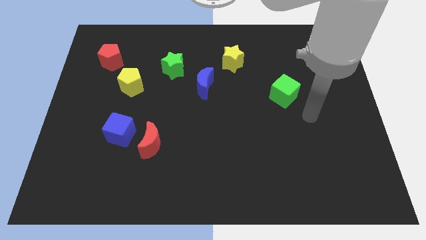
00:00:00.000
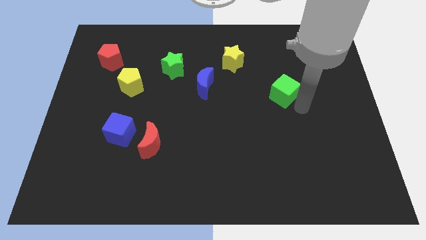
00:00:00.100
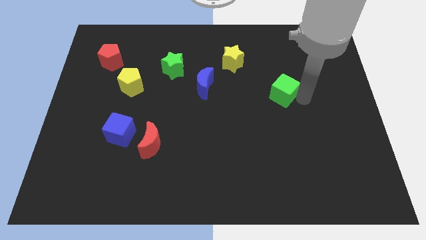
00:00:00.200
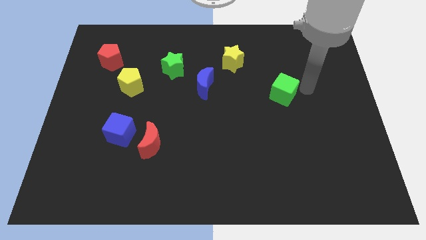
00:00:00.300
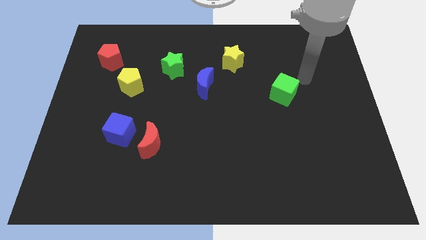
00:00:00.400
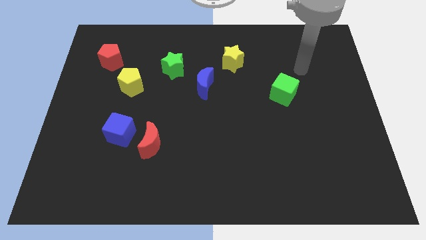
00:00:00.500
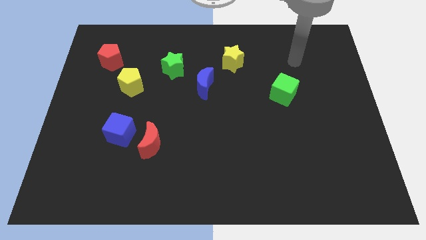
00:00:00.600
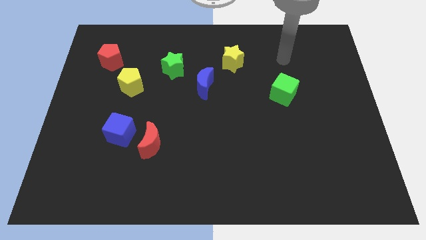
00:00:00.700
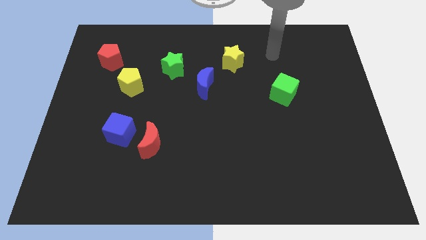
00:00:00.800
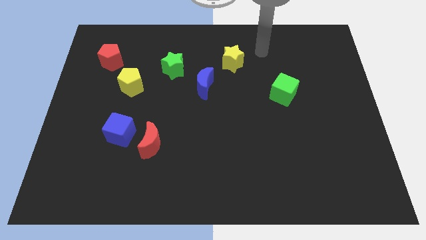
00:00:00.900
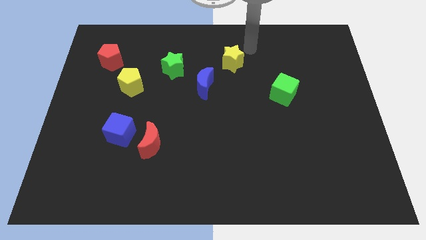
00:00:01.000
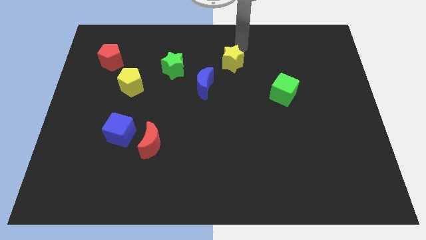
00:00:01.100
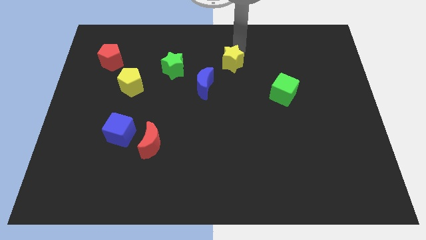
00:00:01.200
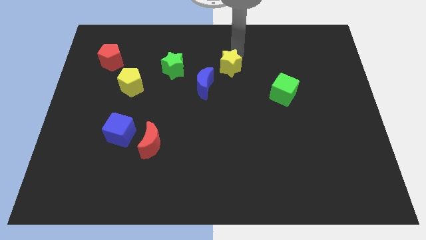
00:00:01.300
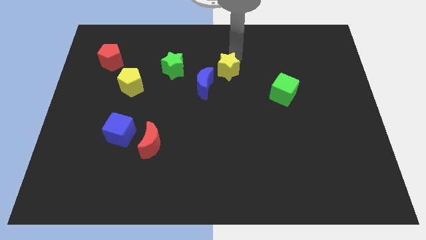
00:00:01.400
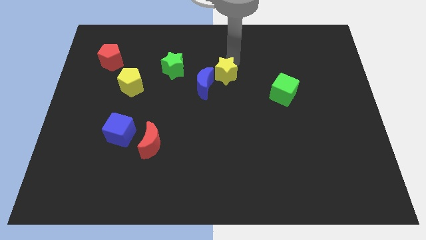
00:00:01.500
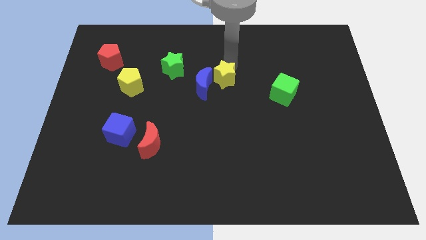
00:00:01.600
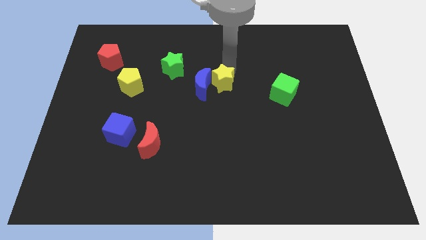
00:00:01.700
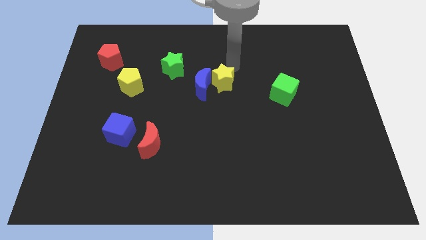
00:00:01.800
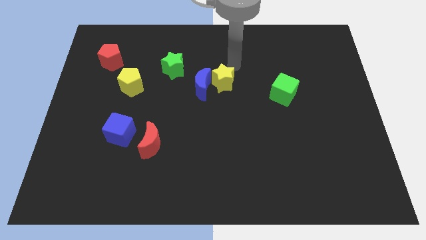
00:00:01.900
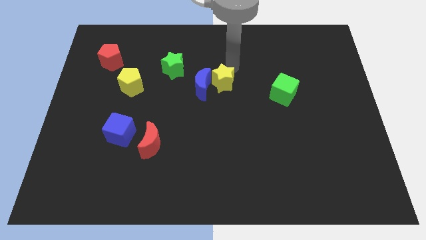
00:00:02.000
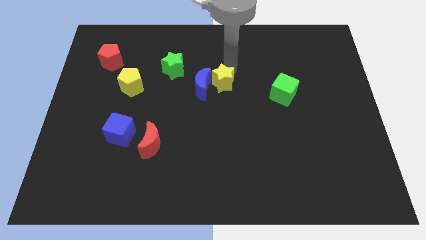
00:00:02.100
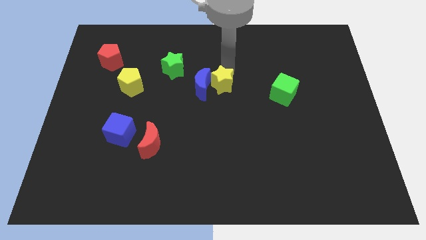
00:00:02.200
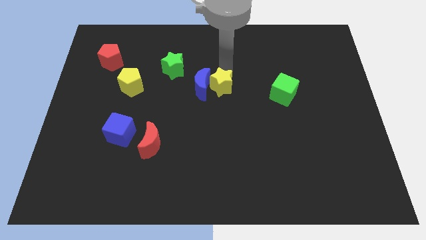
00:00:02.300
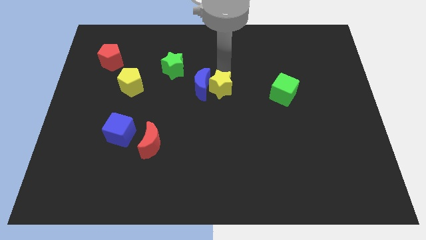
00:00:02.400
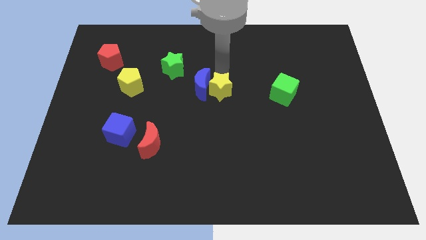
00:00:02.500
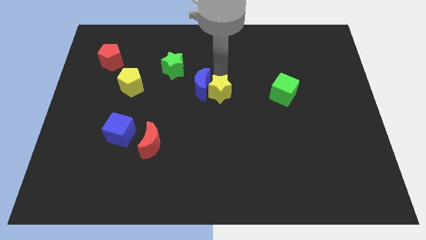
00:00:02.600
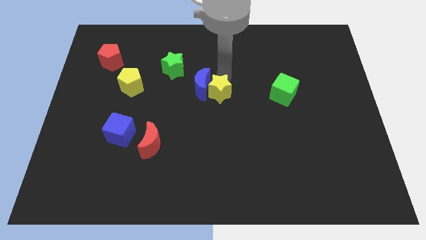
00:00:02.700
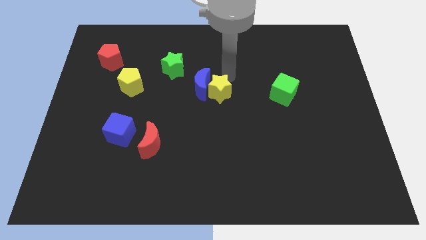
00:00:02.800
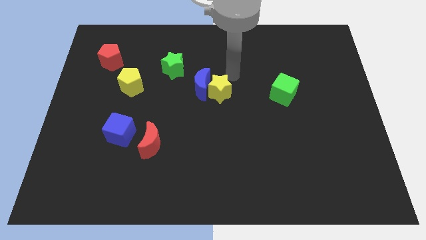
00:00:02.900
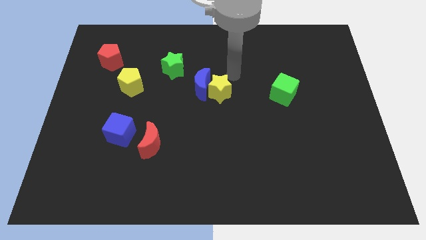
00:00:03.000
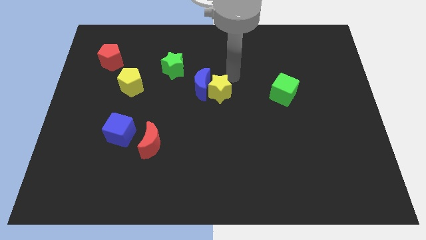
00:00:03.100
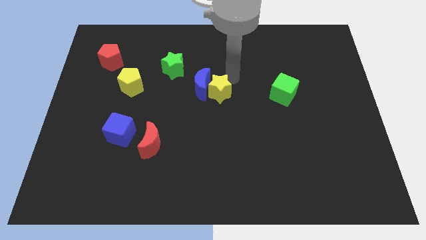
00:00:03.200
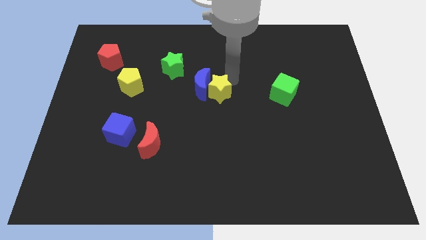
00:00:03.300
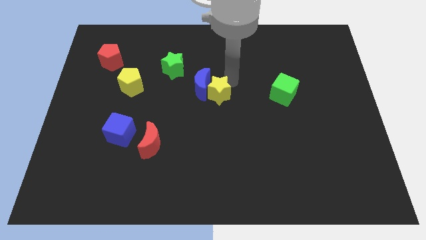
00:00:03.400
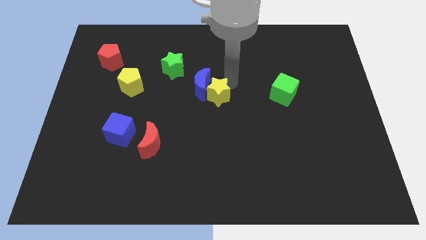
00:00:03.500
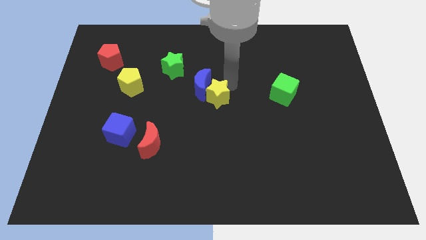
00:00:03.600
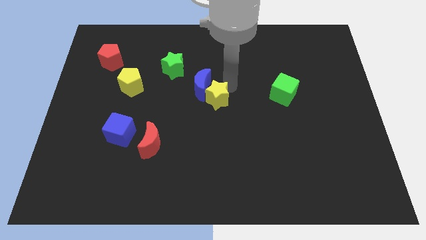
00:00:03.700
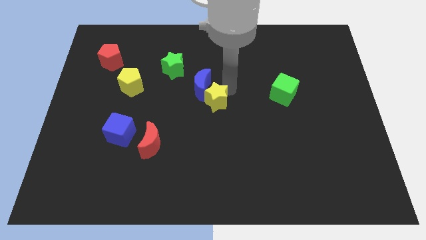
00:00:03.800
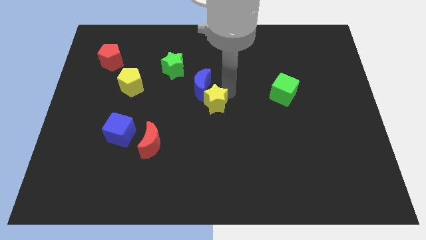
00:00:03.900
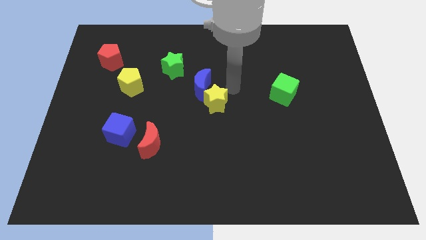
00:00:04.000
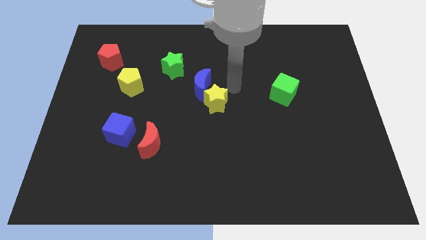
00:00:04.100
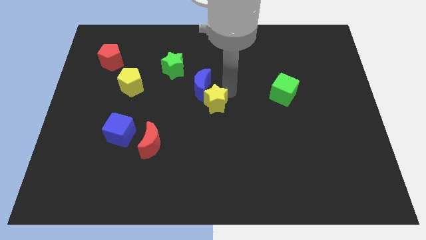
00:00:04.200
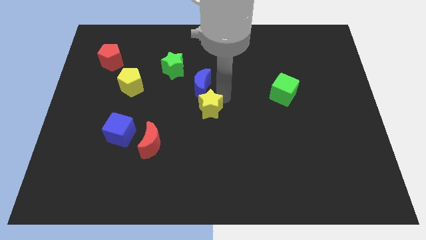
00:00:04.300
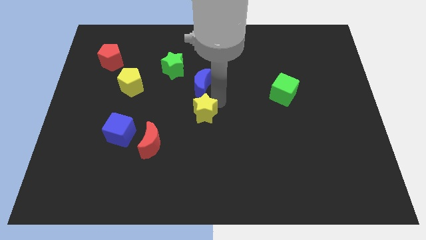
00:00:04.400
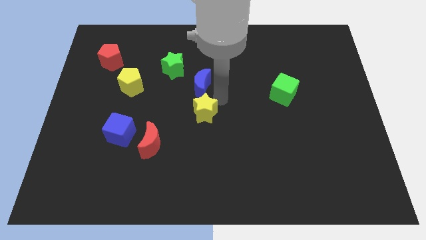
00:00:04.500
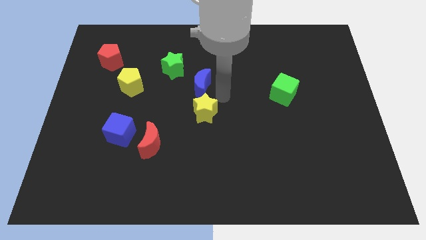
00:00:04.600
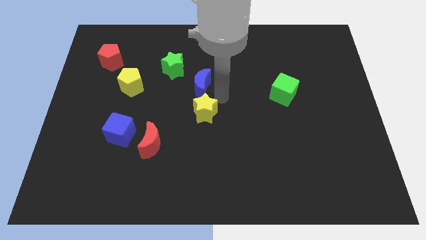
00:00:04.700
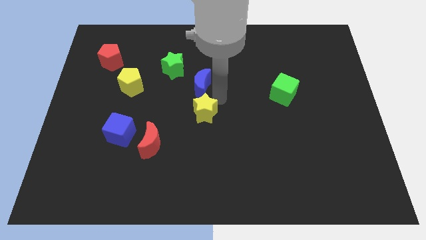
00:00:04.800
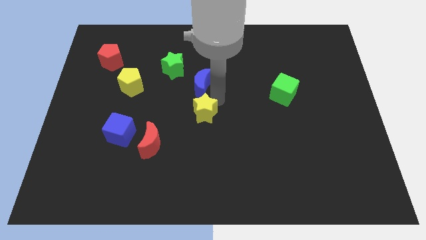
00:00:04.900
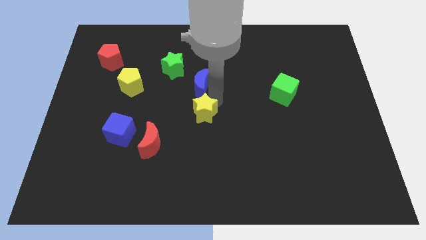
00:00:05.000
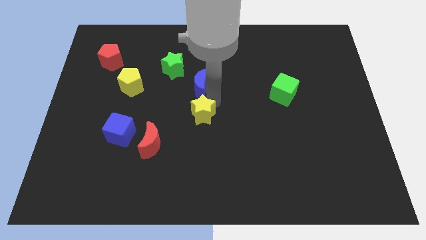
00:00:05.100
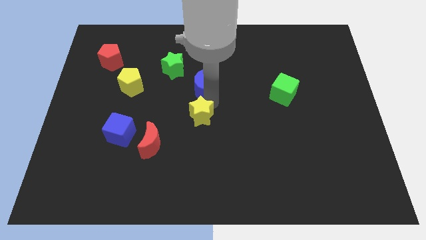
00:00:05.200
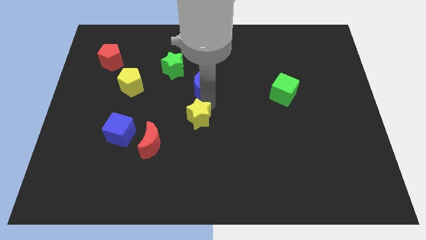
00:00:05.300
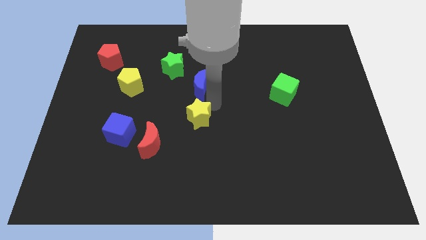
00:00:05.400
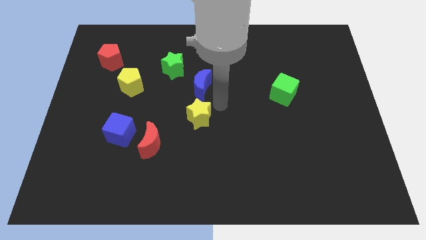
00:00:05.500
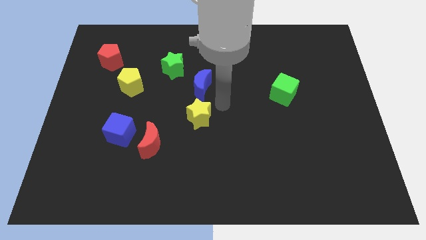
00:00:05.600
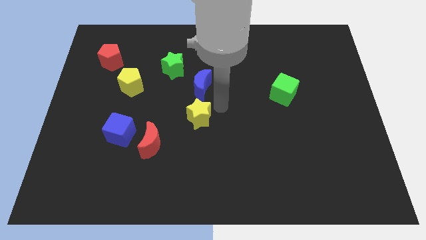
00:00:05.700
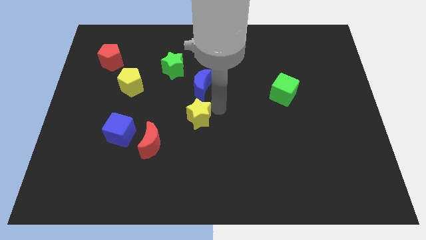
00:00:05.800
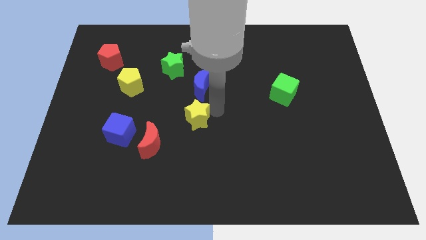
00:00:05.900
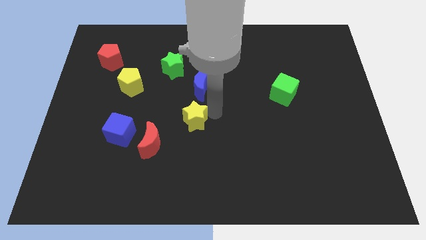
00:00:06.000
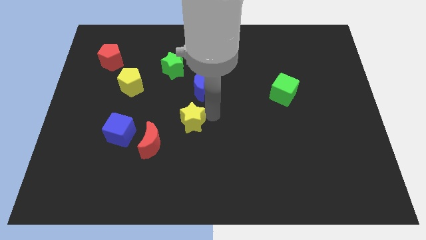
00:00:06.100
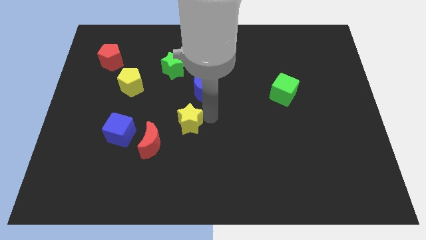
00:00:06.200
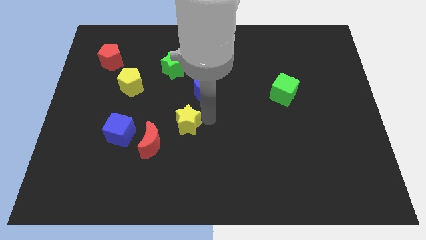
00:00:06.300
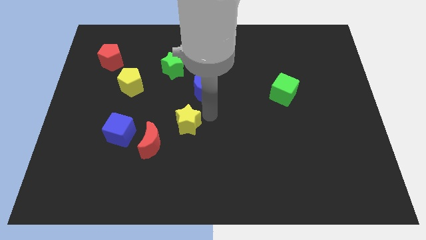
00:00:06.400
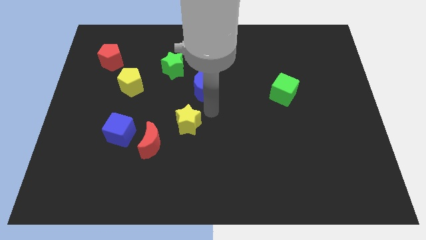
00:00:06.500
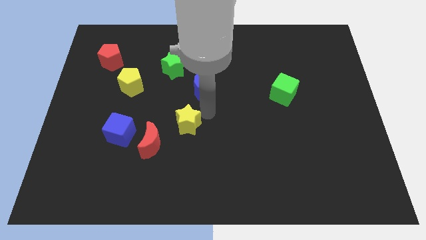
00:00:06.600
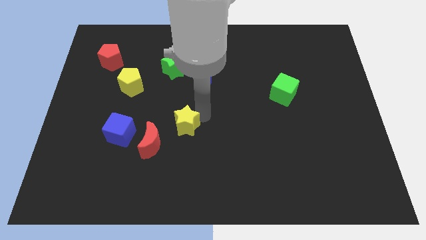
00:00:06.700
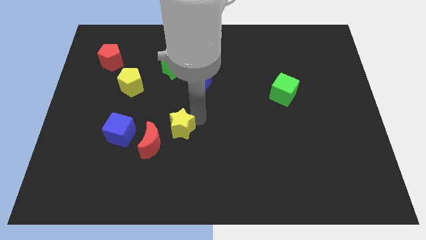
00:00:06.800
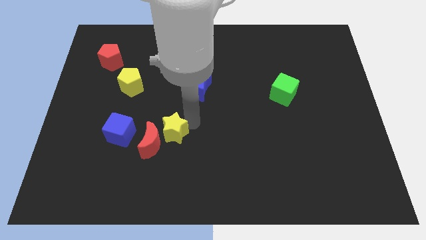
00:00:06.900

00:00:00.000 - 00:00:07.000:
slide the yellow star next to the red moon
